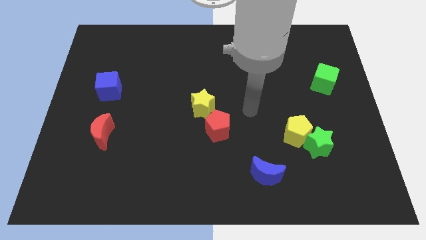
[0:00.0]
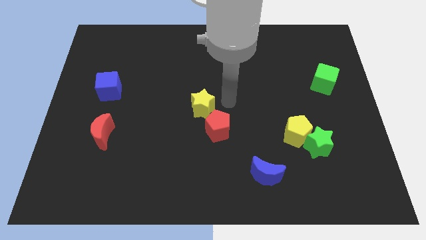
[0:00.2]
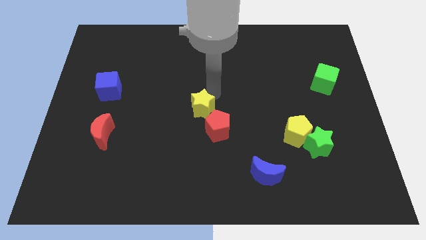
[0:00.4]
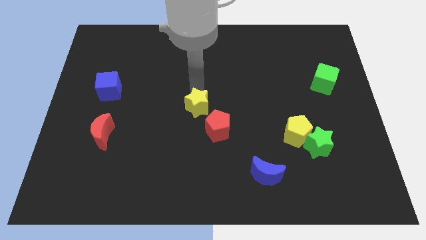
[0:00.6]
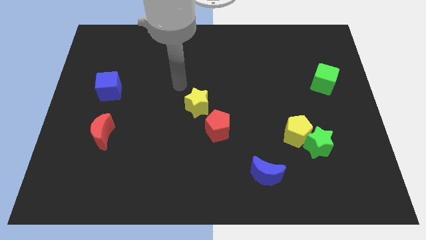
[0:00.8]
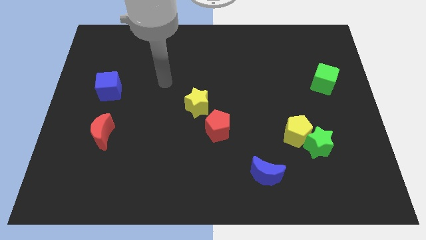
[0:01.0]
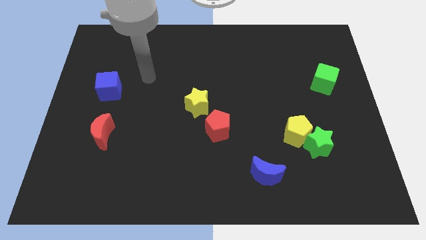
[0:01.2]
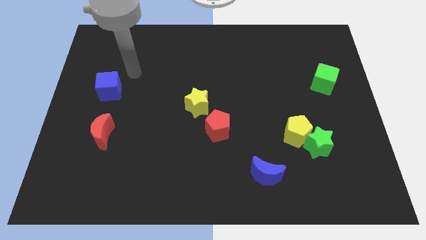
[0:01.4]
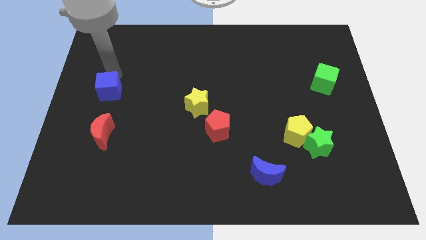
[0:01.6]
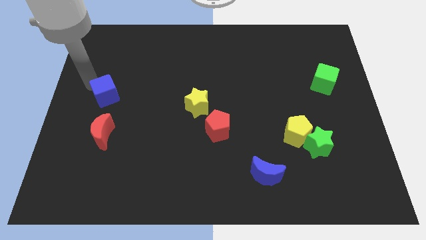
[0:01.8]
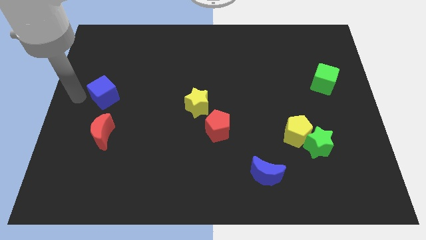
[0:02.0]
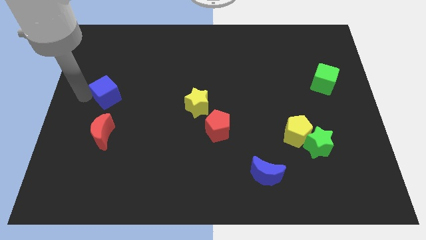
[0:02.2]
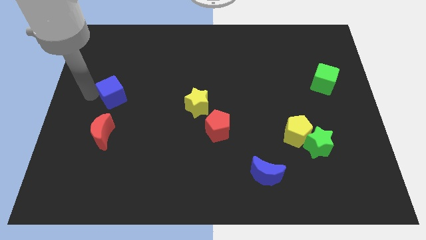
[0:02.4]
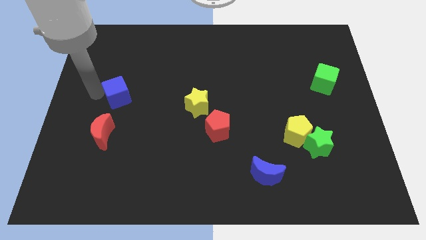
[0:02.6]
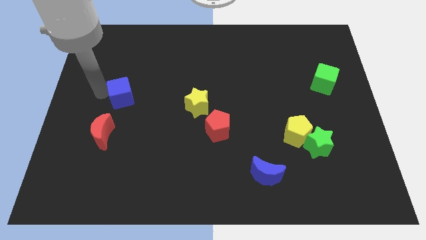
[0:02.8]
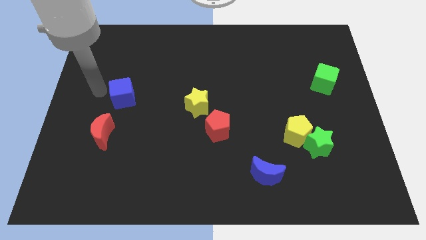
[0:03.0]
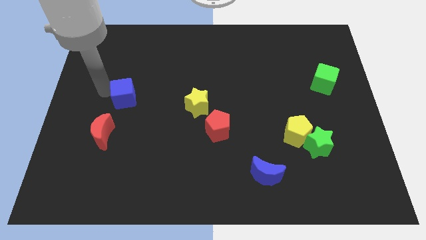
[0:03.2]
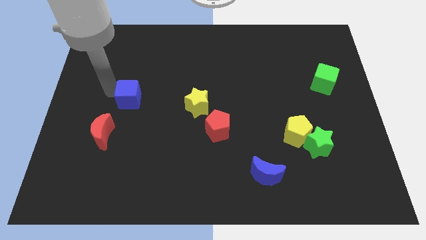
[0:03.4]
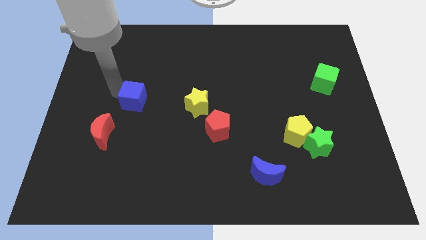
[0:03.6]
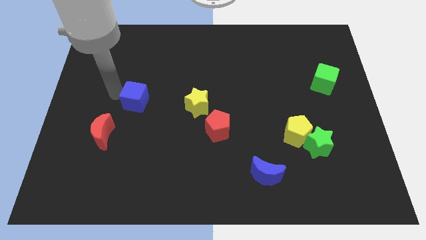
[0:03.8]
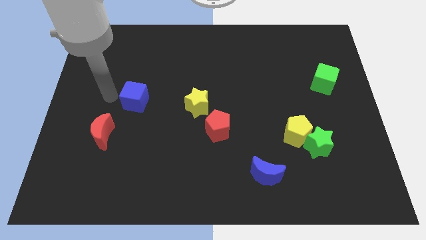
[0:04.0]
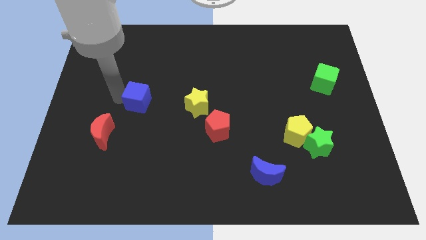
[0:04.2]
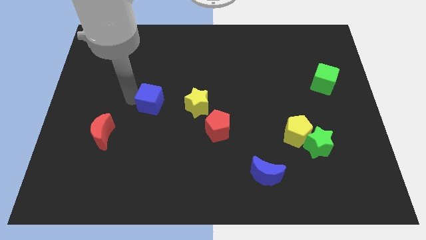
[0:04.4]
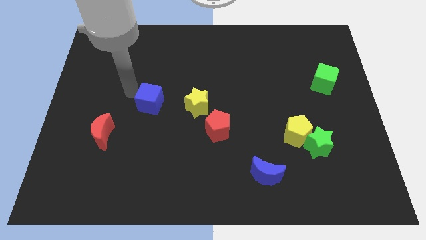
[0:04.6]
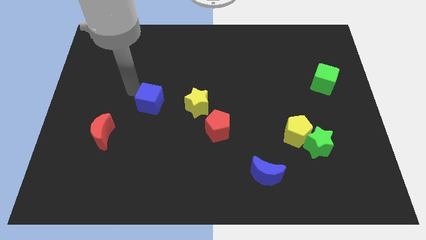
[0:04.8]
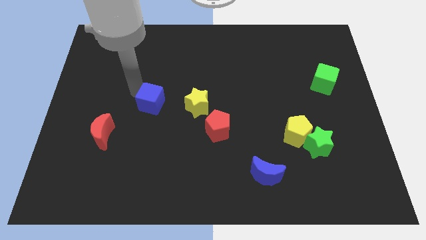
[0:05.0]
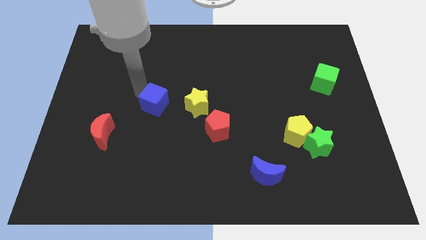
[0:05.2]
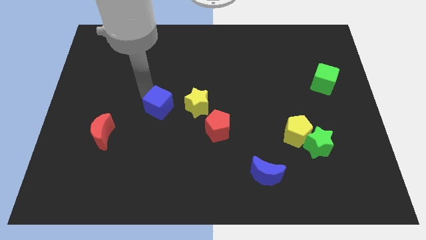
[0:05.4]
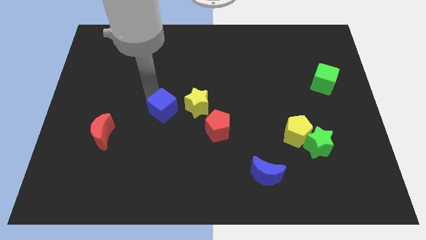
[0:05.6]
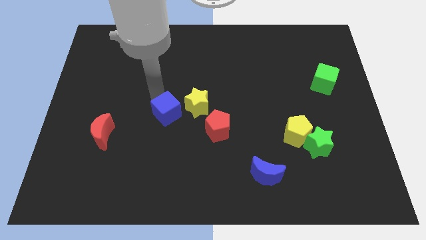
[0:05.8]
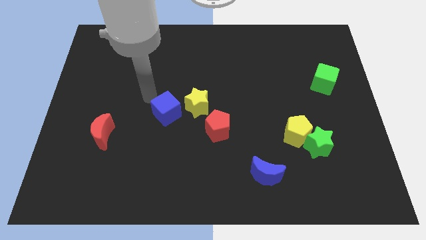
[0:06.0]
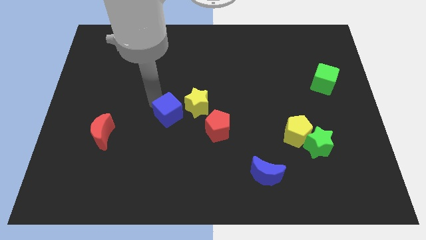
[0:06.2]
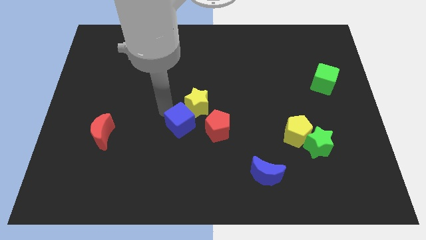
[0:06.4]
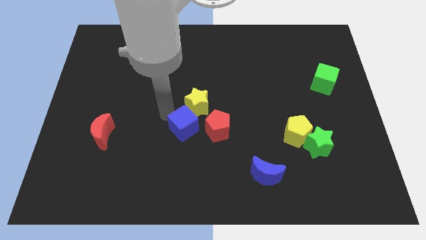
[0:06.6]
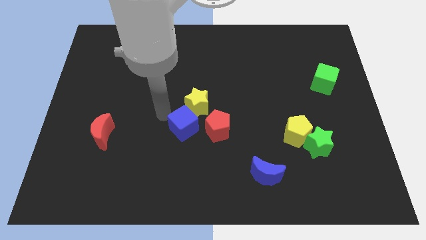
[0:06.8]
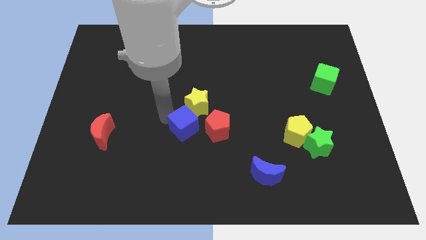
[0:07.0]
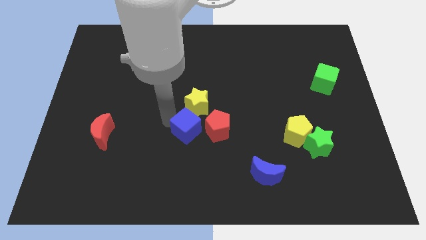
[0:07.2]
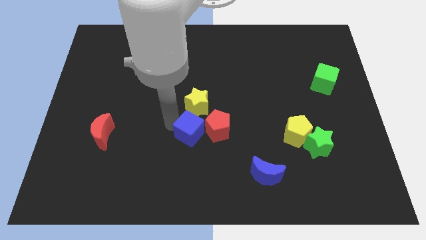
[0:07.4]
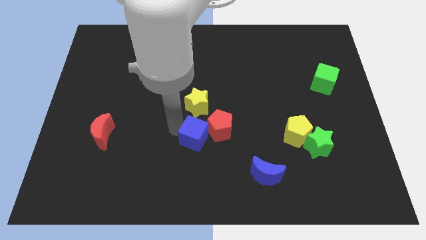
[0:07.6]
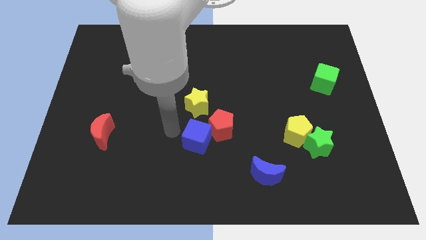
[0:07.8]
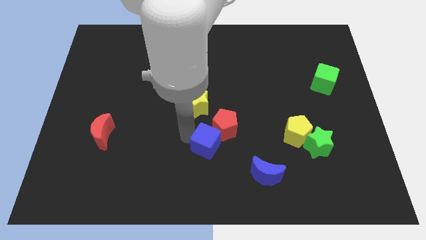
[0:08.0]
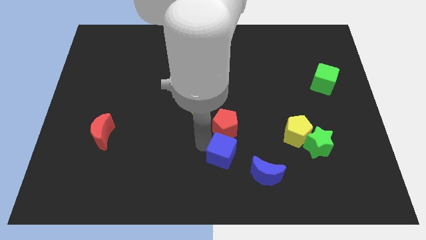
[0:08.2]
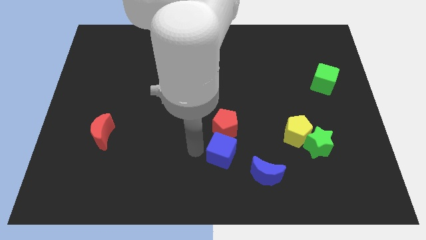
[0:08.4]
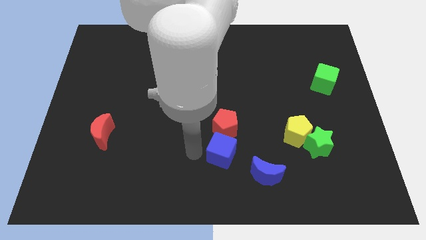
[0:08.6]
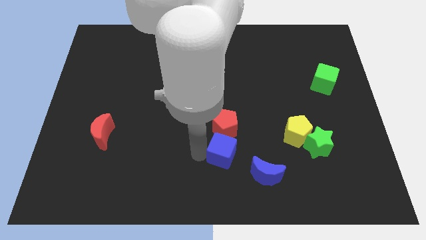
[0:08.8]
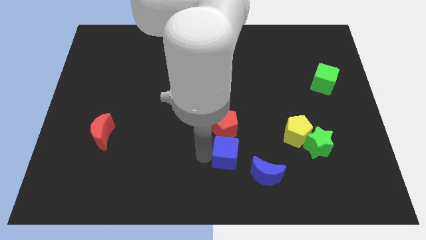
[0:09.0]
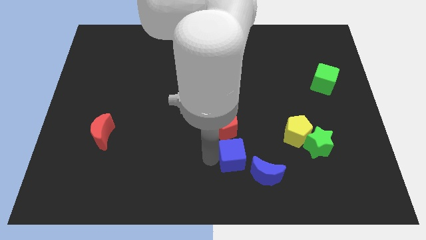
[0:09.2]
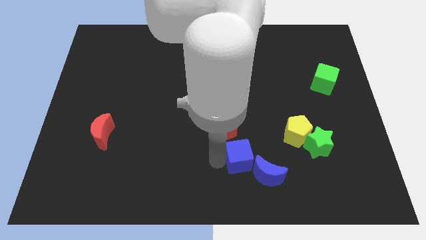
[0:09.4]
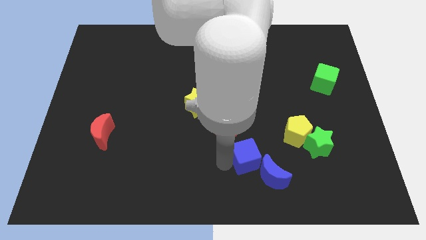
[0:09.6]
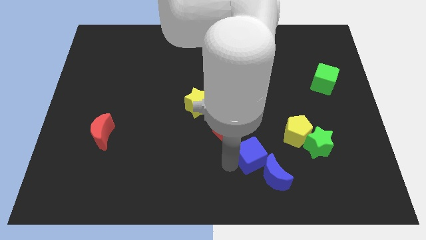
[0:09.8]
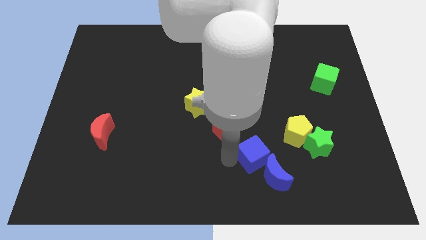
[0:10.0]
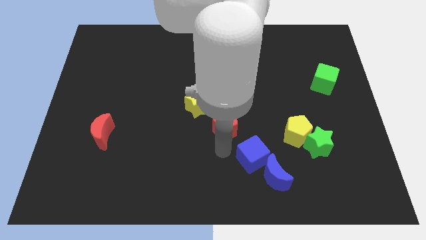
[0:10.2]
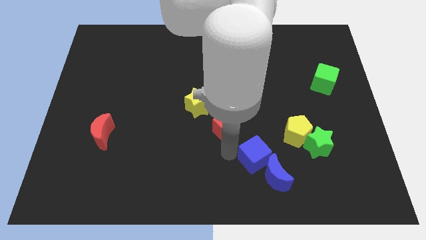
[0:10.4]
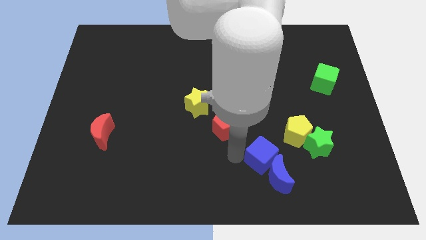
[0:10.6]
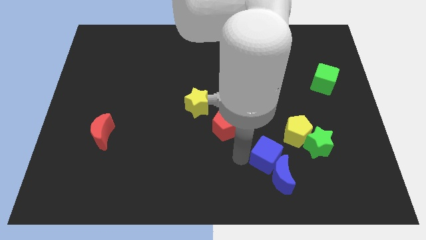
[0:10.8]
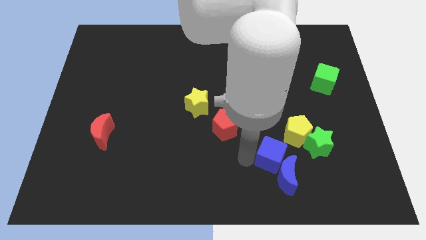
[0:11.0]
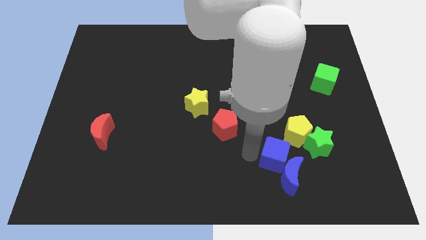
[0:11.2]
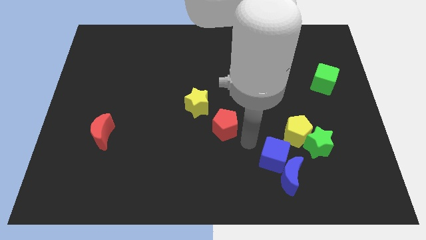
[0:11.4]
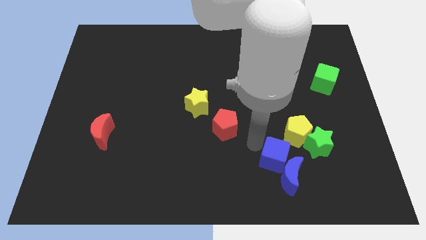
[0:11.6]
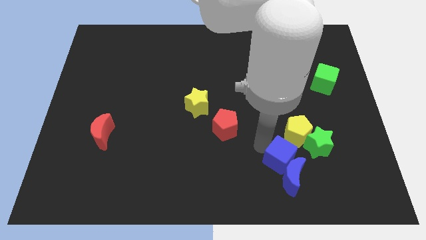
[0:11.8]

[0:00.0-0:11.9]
move the blue cube below the yellow pentagon

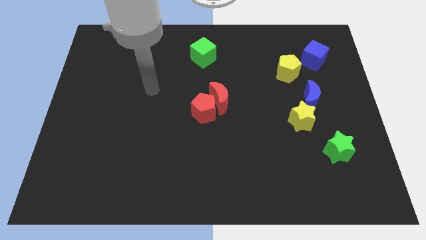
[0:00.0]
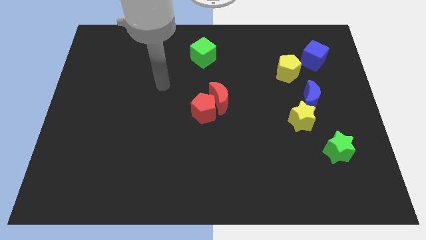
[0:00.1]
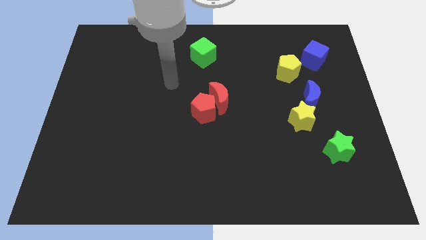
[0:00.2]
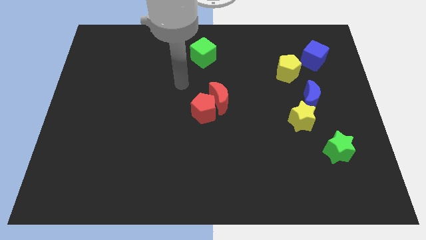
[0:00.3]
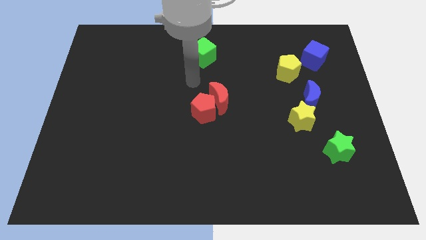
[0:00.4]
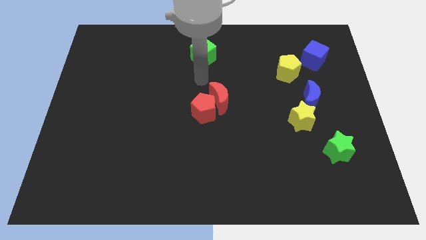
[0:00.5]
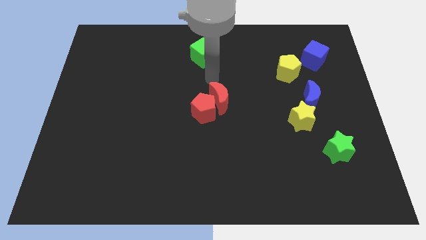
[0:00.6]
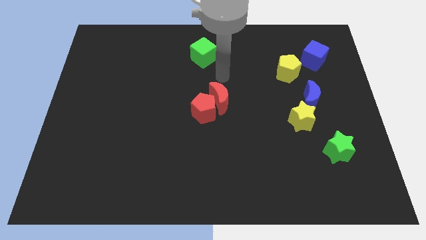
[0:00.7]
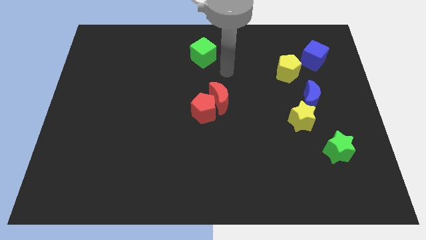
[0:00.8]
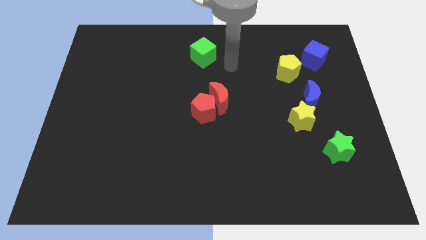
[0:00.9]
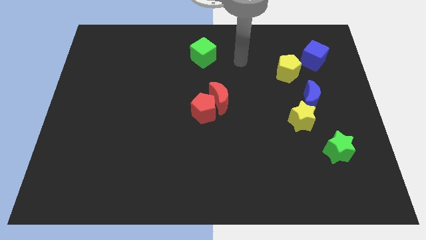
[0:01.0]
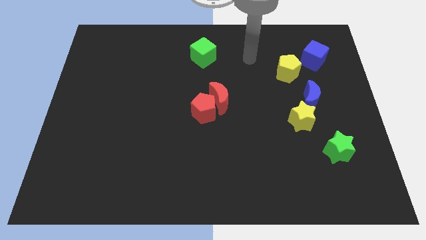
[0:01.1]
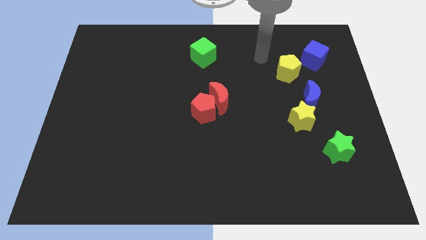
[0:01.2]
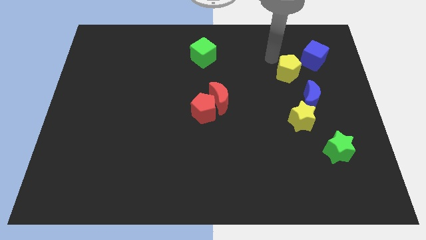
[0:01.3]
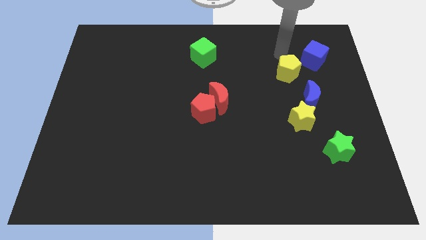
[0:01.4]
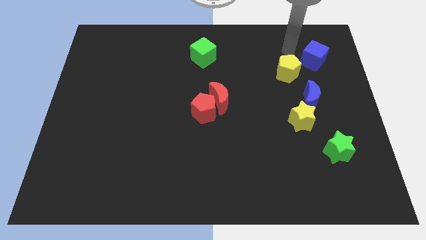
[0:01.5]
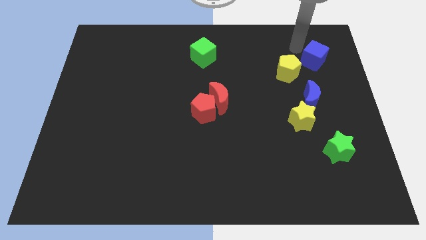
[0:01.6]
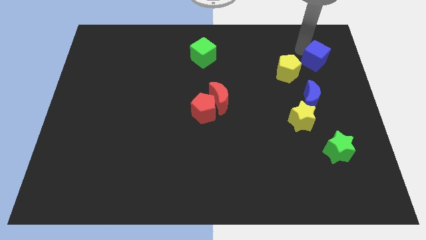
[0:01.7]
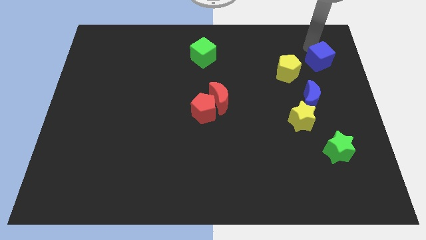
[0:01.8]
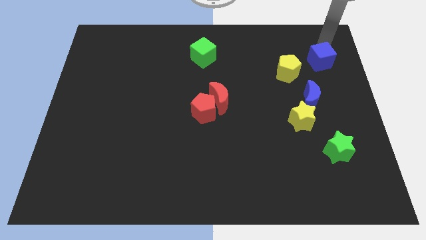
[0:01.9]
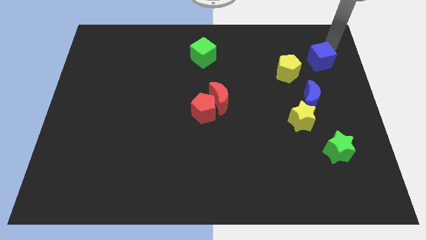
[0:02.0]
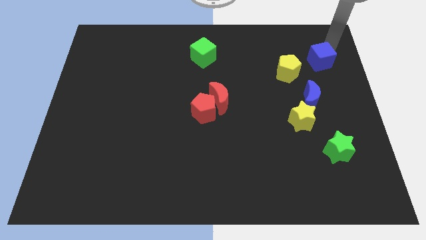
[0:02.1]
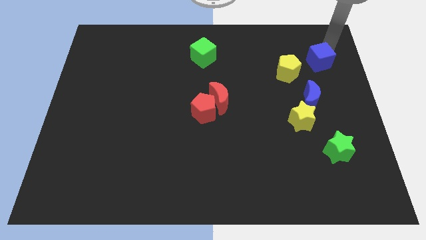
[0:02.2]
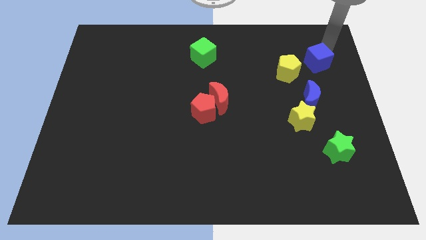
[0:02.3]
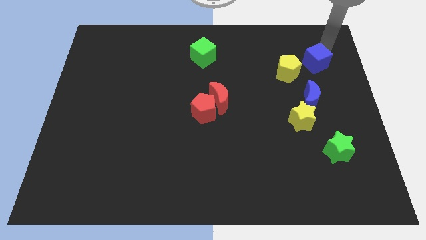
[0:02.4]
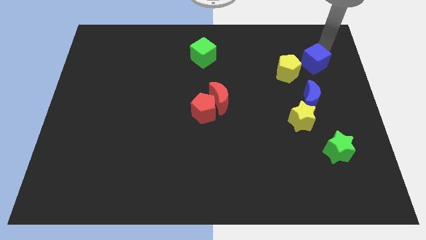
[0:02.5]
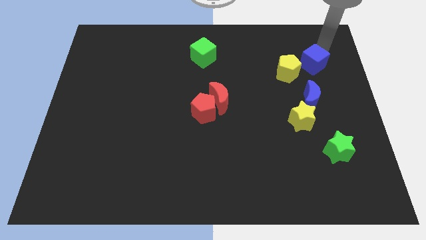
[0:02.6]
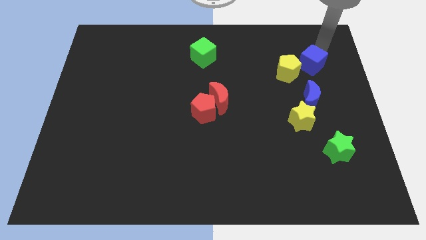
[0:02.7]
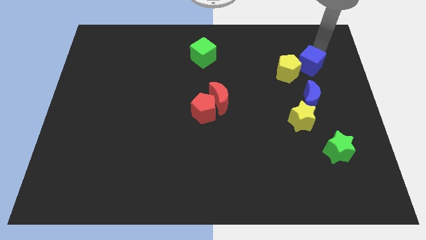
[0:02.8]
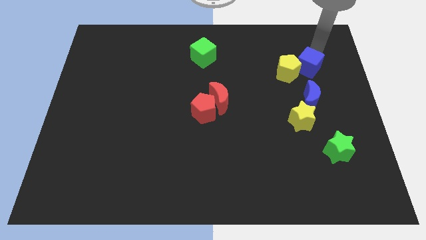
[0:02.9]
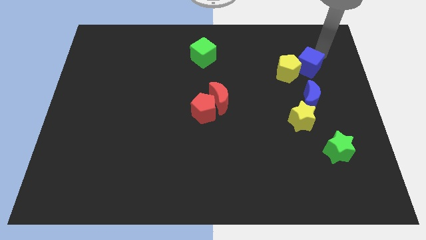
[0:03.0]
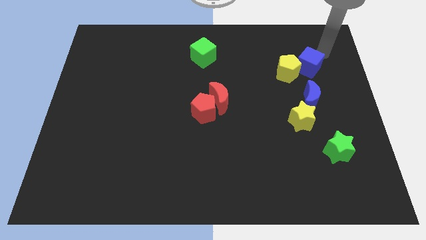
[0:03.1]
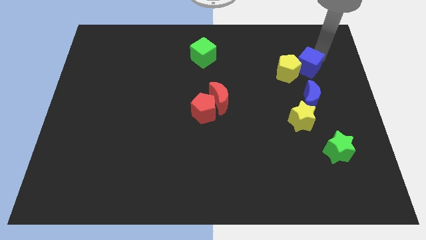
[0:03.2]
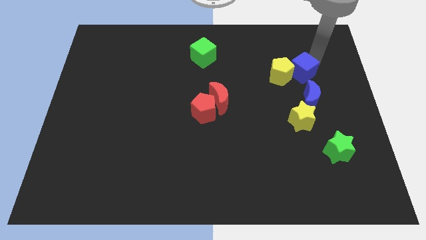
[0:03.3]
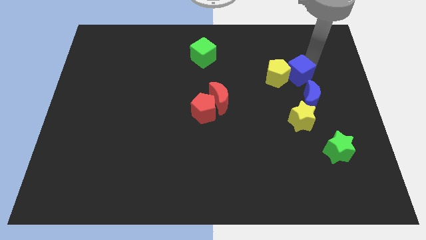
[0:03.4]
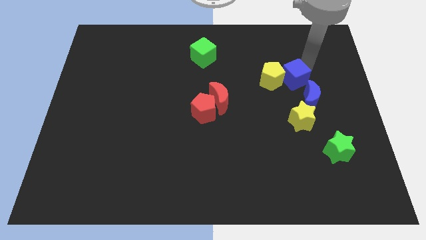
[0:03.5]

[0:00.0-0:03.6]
put the blue cube diagonally up and to the left of the blue moon
